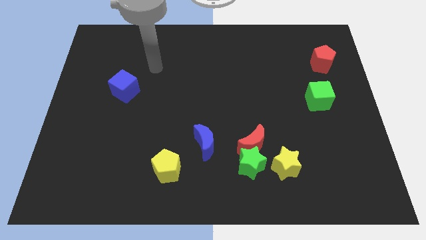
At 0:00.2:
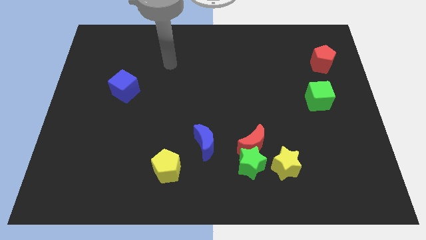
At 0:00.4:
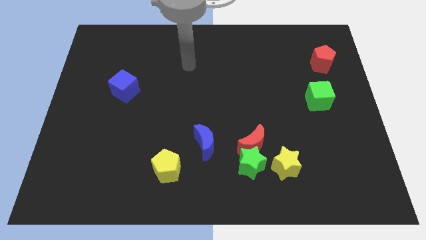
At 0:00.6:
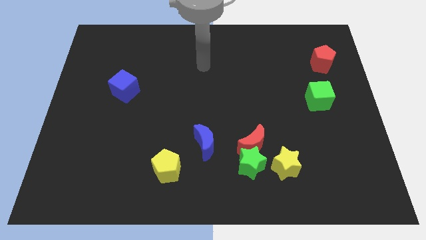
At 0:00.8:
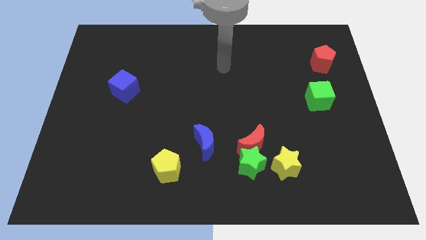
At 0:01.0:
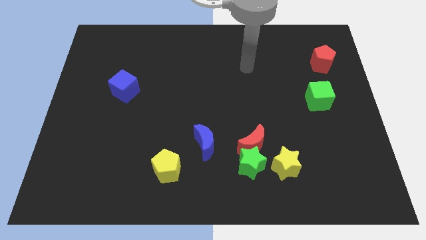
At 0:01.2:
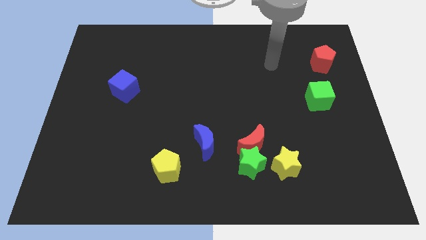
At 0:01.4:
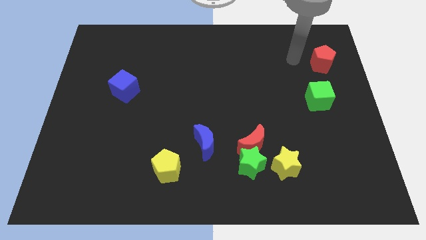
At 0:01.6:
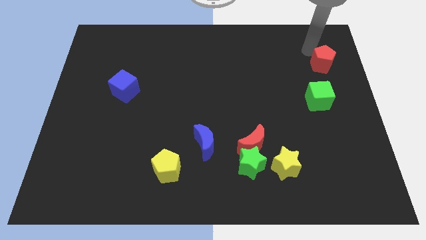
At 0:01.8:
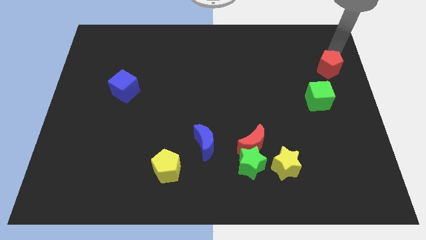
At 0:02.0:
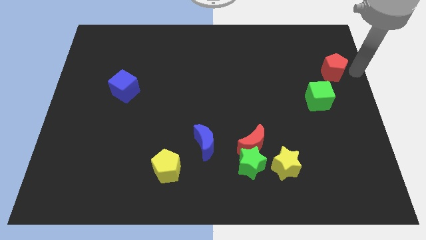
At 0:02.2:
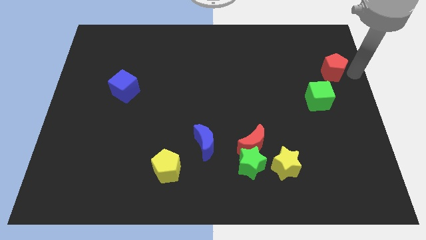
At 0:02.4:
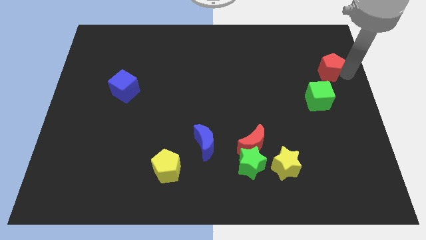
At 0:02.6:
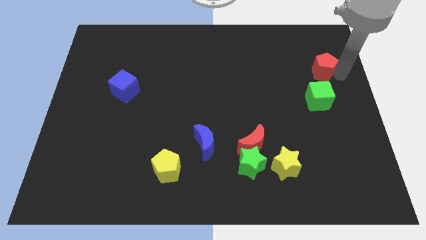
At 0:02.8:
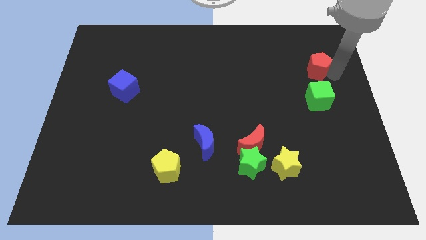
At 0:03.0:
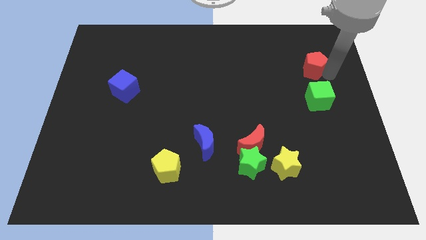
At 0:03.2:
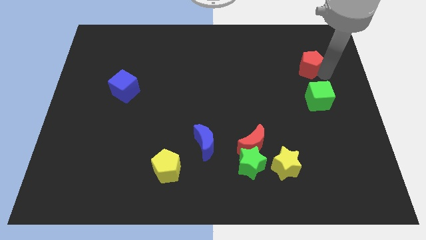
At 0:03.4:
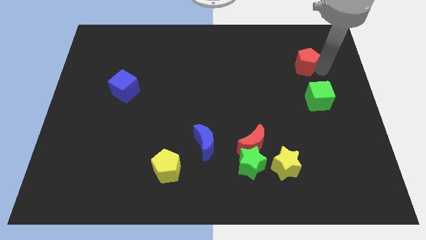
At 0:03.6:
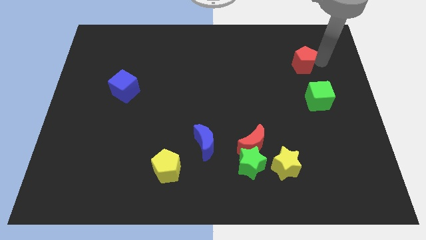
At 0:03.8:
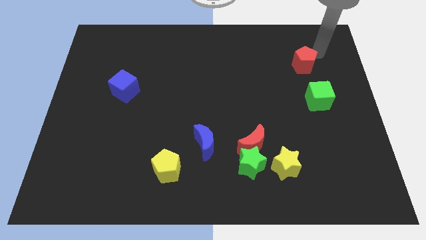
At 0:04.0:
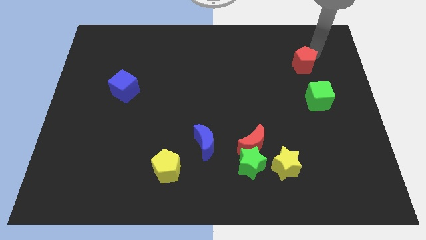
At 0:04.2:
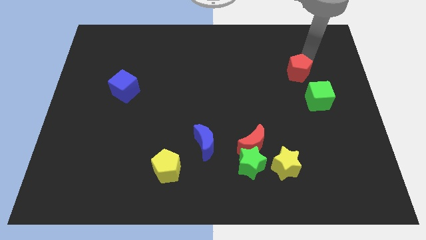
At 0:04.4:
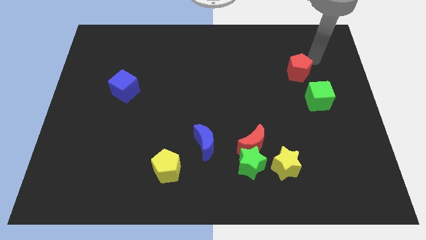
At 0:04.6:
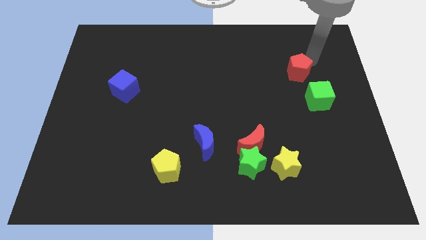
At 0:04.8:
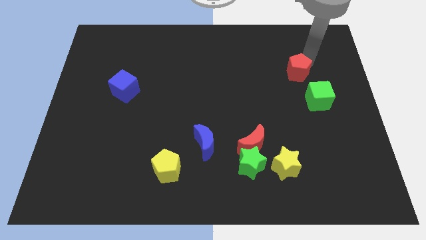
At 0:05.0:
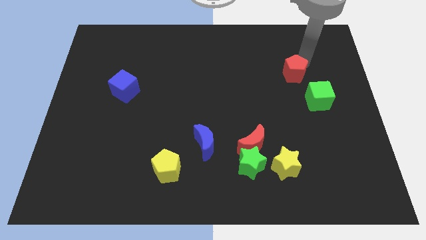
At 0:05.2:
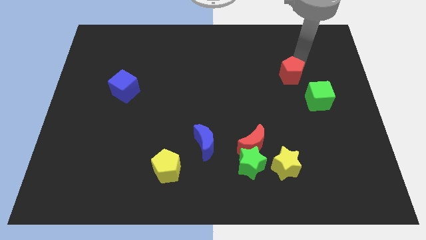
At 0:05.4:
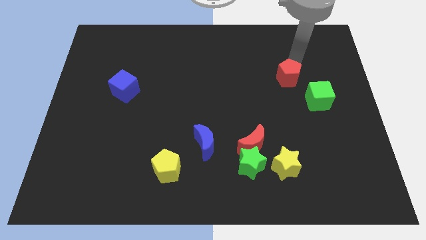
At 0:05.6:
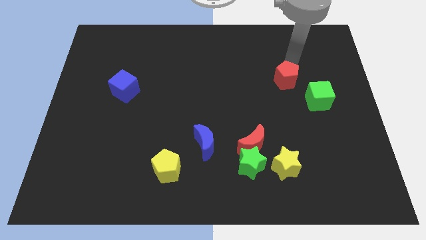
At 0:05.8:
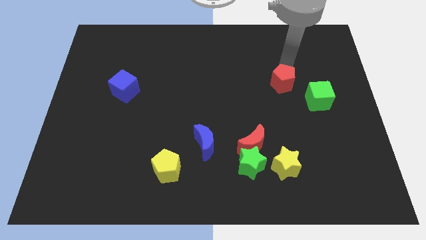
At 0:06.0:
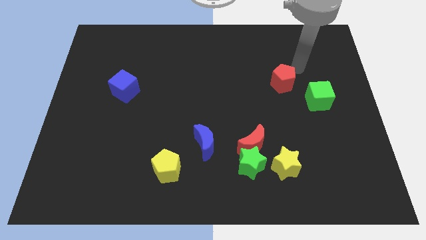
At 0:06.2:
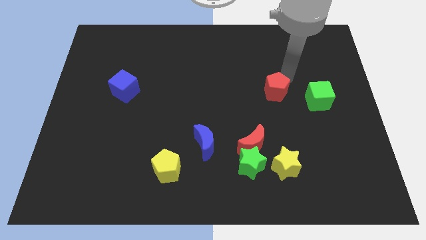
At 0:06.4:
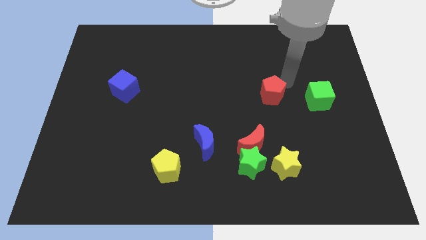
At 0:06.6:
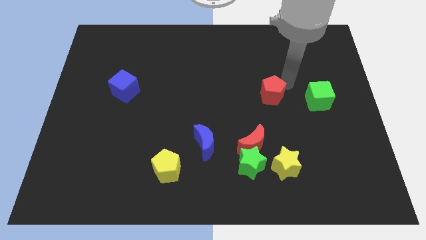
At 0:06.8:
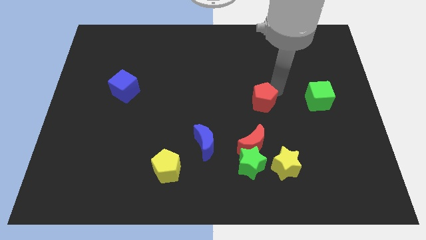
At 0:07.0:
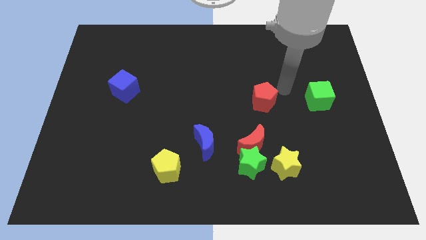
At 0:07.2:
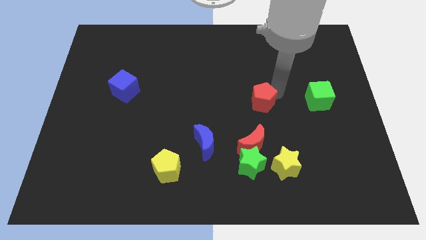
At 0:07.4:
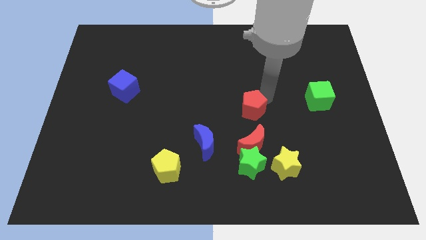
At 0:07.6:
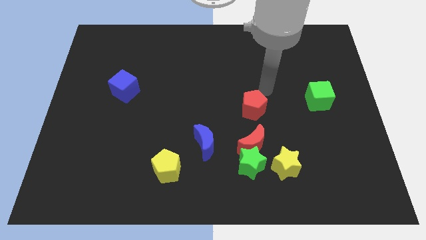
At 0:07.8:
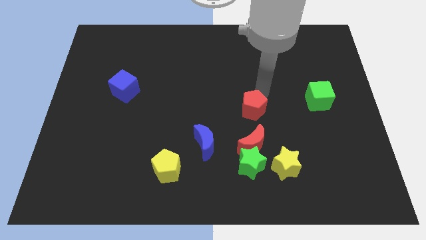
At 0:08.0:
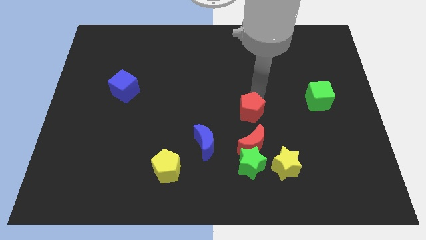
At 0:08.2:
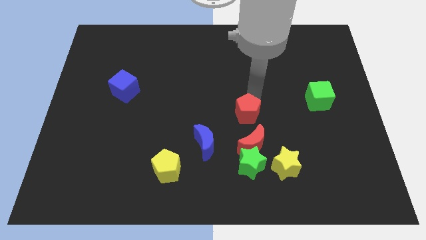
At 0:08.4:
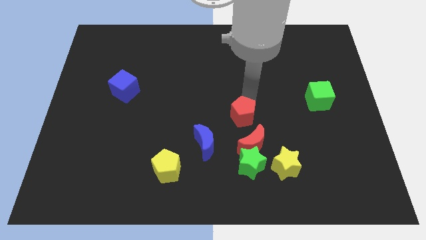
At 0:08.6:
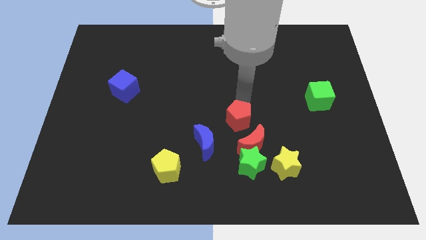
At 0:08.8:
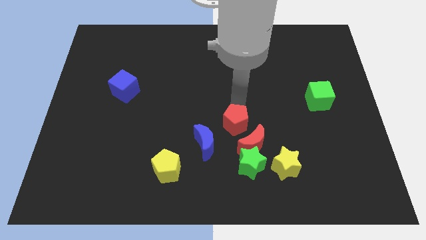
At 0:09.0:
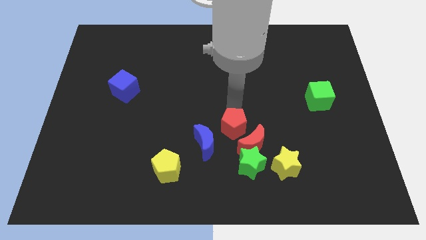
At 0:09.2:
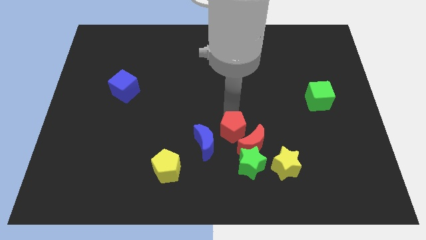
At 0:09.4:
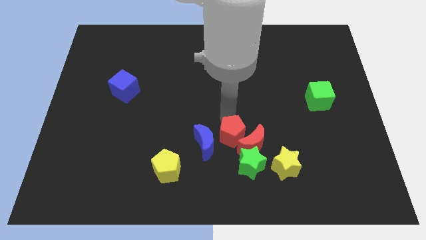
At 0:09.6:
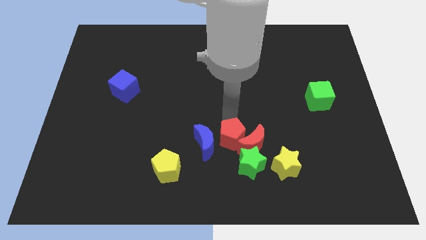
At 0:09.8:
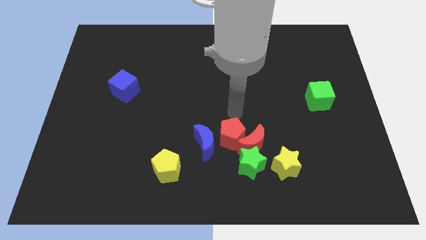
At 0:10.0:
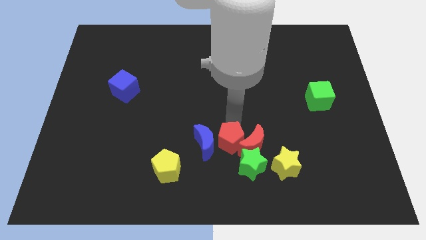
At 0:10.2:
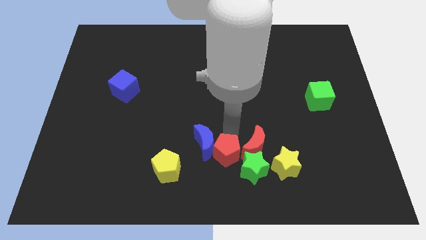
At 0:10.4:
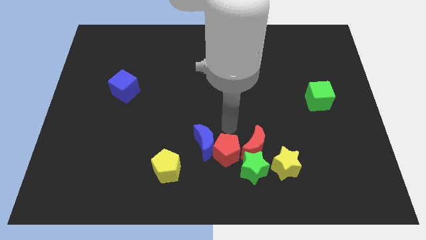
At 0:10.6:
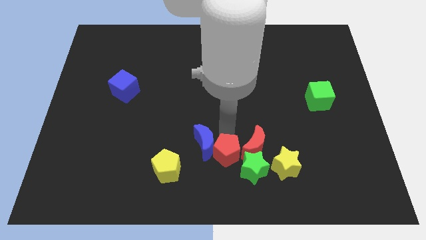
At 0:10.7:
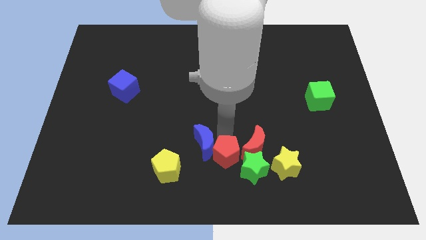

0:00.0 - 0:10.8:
slide the red pentagon to the bottom side
